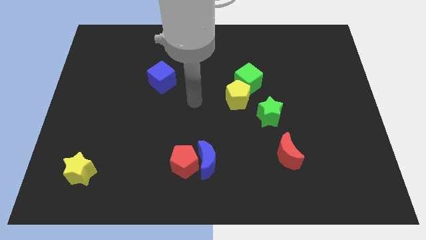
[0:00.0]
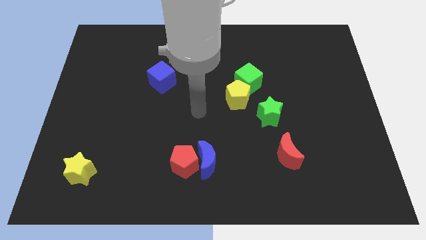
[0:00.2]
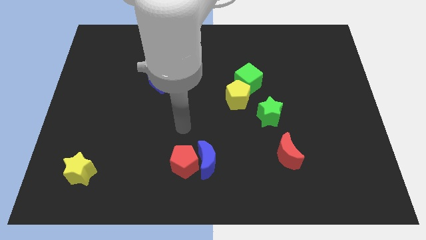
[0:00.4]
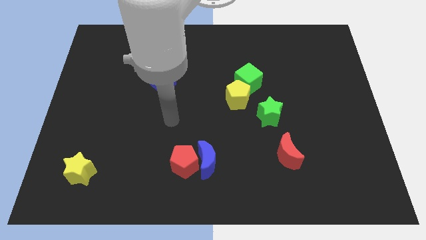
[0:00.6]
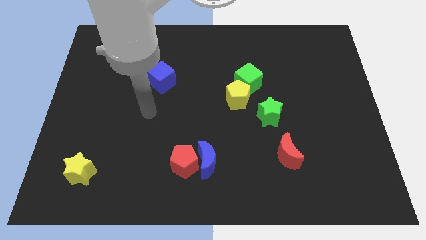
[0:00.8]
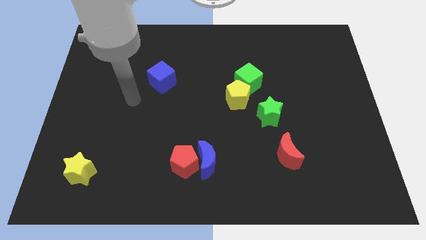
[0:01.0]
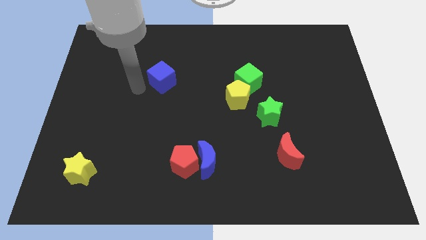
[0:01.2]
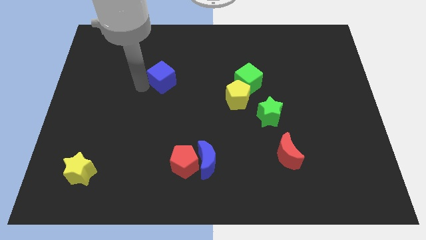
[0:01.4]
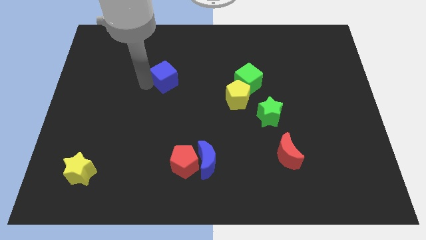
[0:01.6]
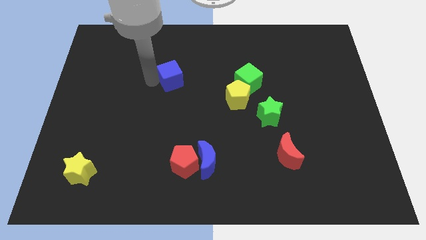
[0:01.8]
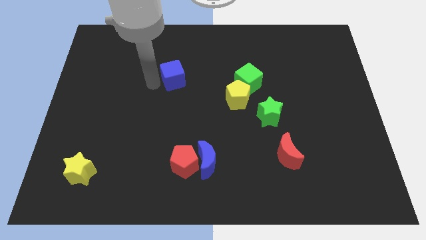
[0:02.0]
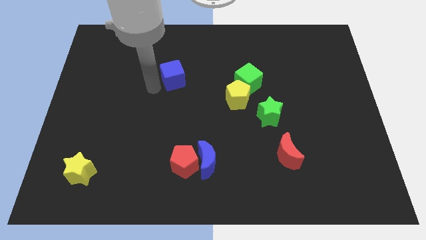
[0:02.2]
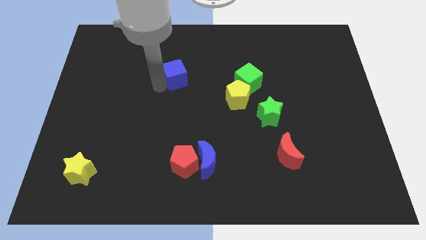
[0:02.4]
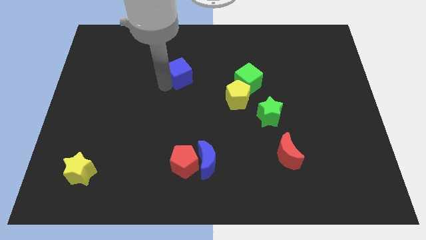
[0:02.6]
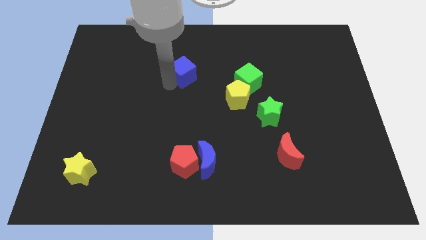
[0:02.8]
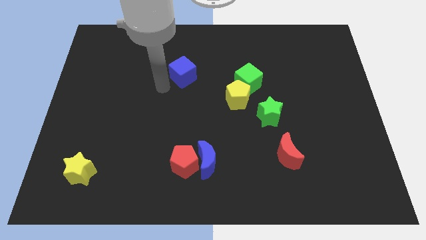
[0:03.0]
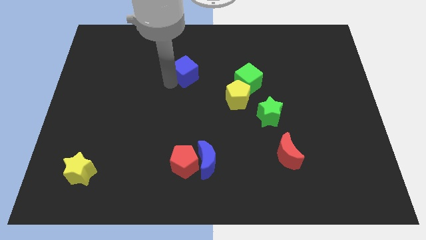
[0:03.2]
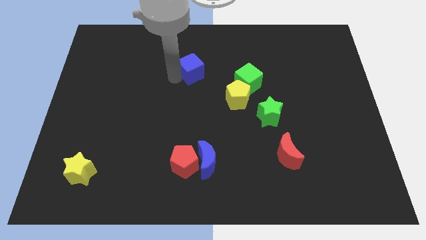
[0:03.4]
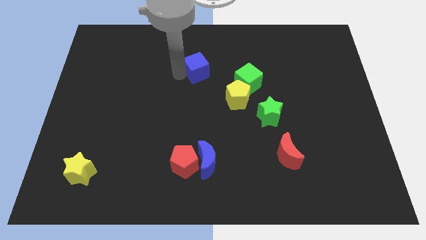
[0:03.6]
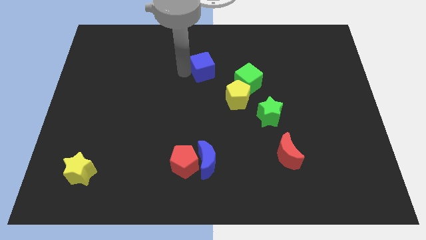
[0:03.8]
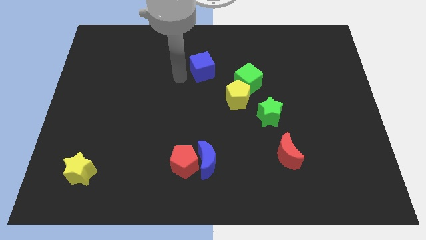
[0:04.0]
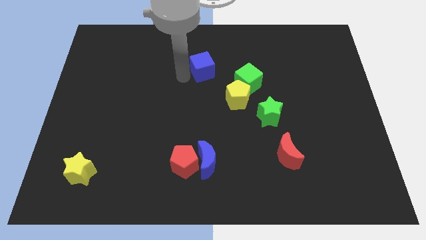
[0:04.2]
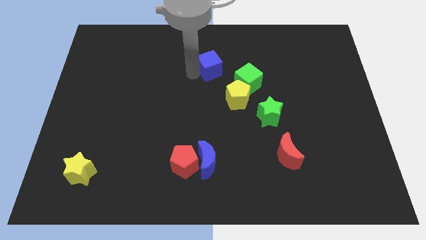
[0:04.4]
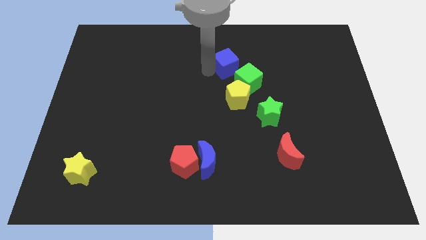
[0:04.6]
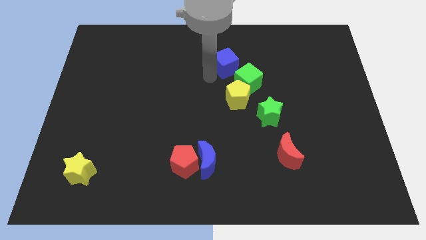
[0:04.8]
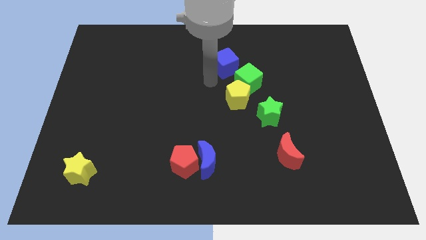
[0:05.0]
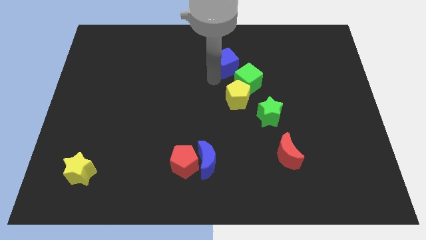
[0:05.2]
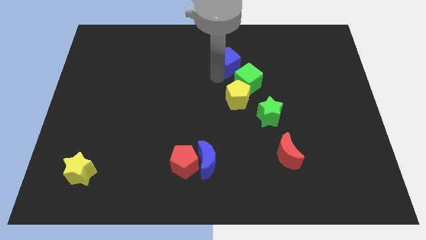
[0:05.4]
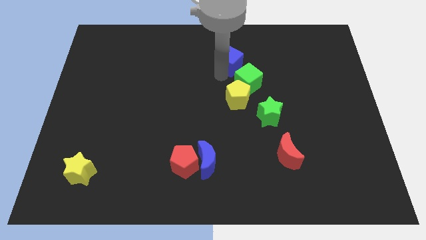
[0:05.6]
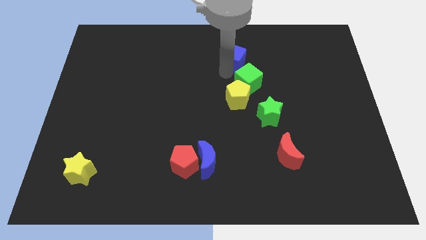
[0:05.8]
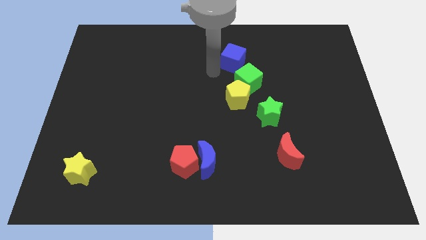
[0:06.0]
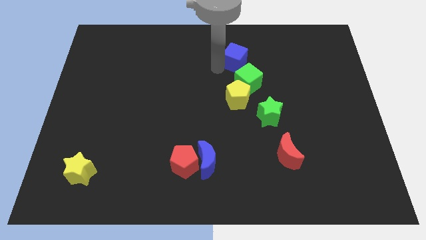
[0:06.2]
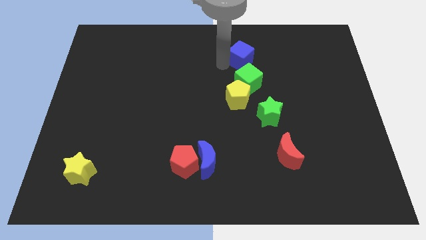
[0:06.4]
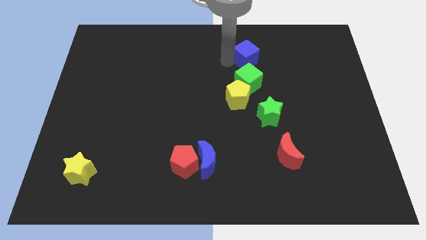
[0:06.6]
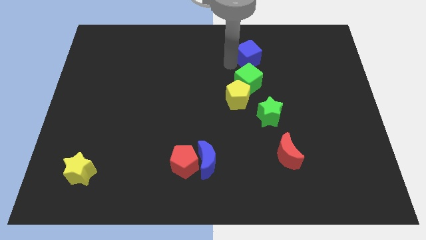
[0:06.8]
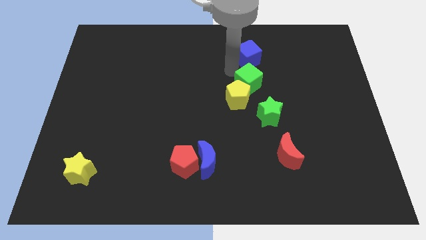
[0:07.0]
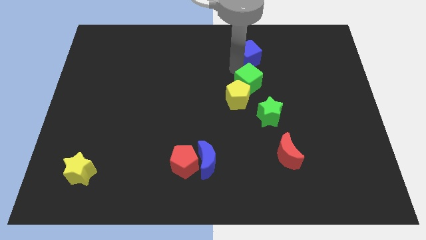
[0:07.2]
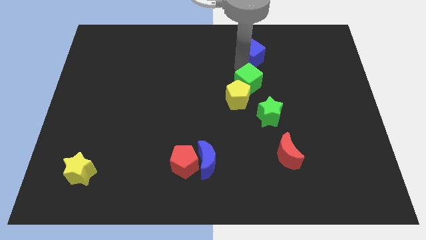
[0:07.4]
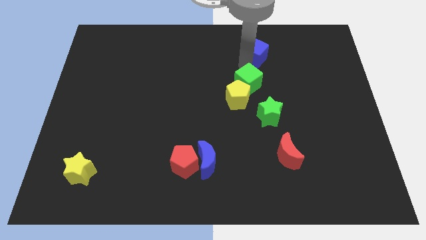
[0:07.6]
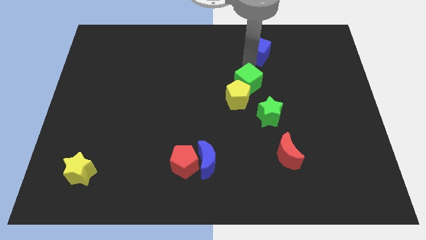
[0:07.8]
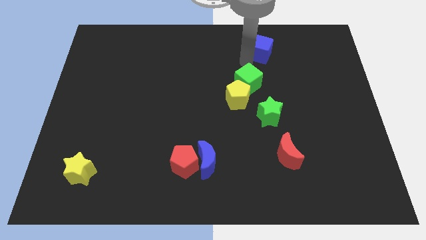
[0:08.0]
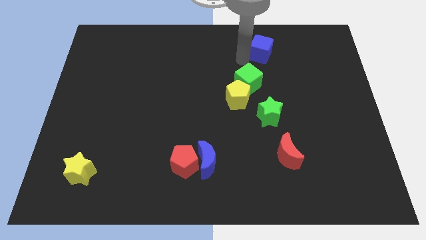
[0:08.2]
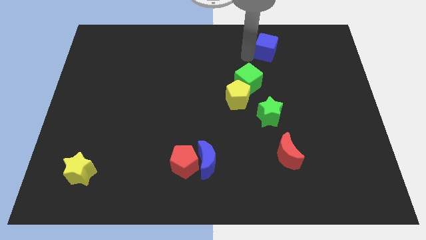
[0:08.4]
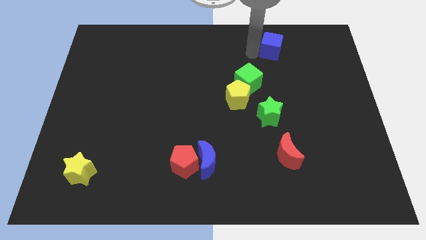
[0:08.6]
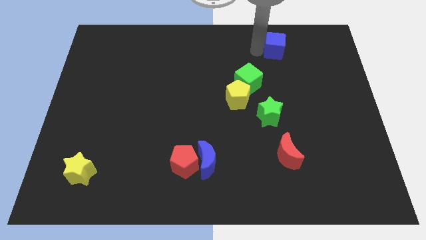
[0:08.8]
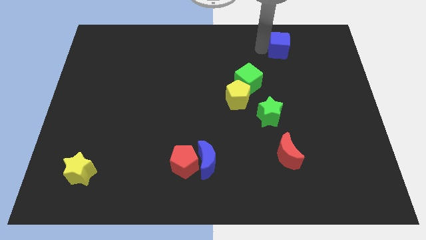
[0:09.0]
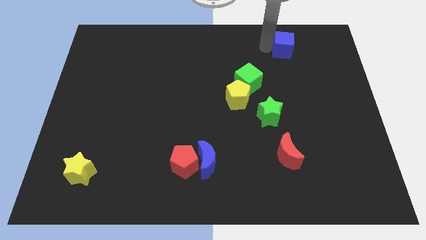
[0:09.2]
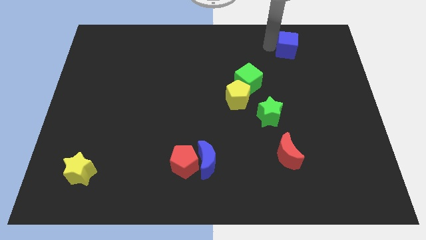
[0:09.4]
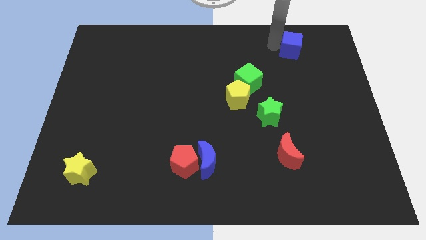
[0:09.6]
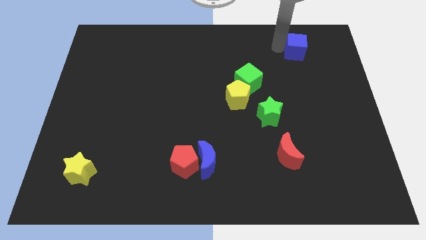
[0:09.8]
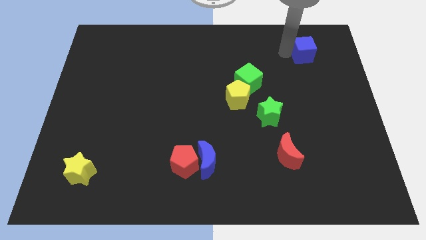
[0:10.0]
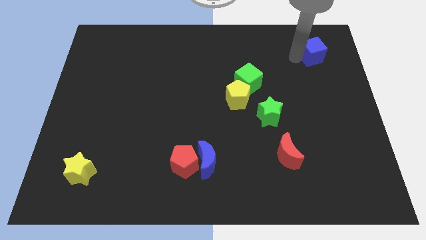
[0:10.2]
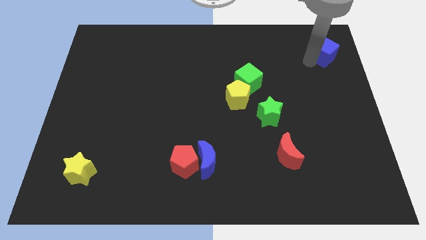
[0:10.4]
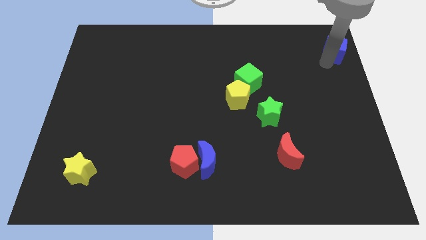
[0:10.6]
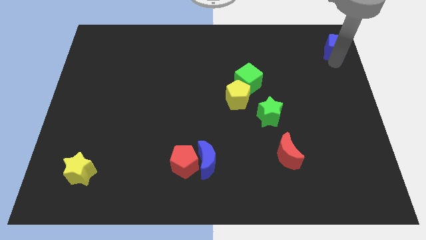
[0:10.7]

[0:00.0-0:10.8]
put the blue cube to the top right

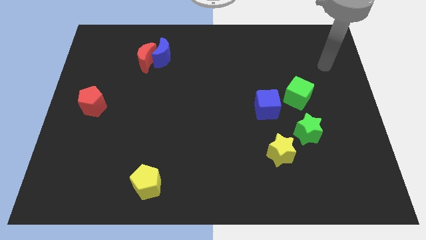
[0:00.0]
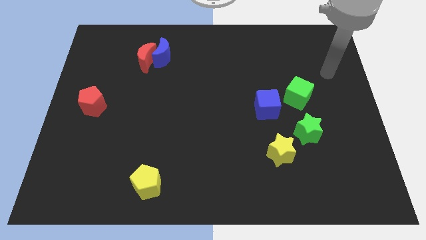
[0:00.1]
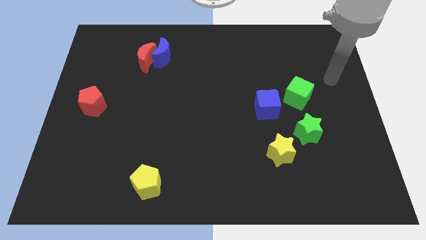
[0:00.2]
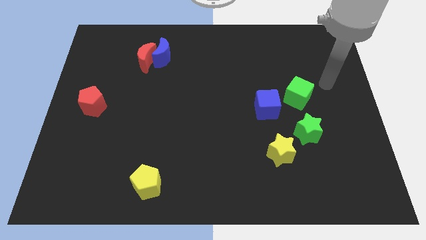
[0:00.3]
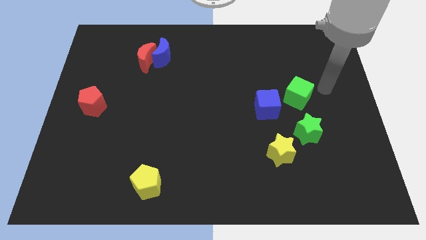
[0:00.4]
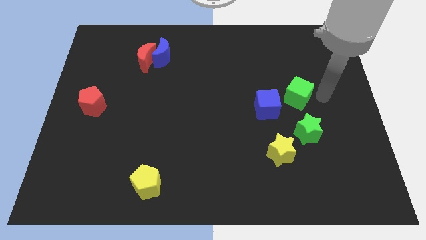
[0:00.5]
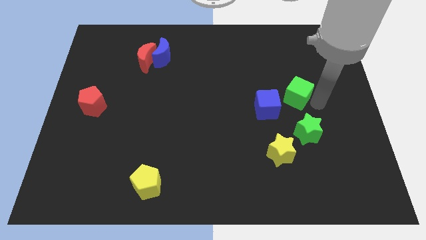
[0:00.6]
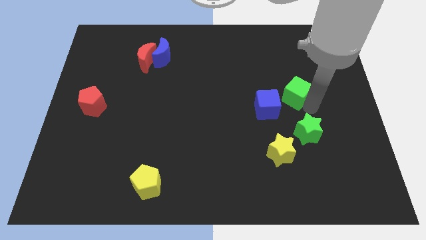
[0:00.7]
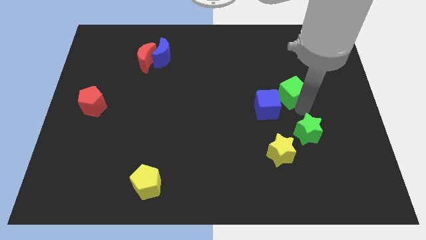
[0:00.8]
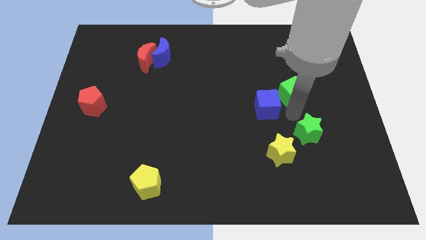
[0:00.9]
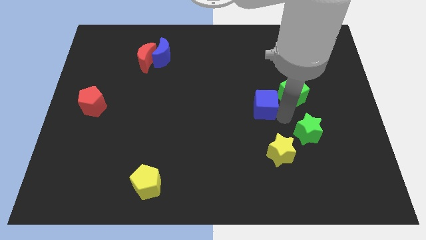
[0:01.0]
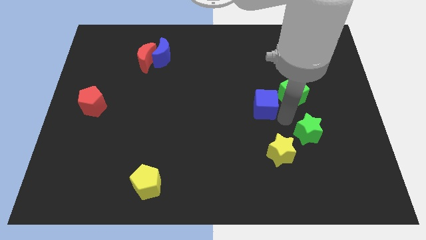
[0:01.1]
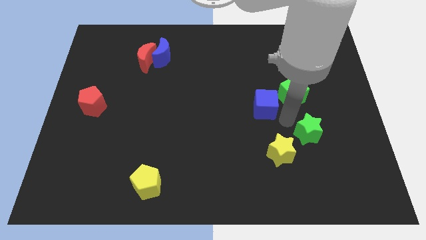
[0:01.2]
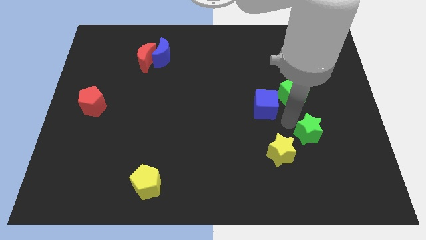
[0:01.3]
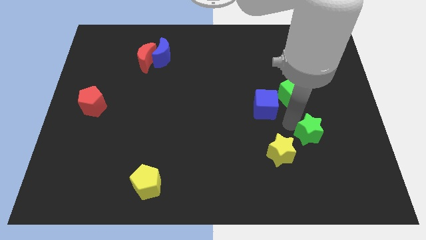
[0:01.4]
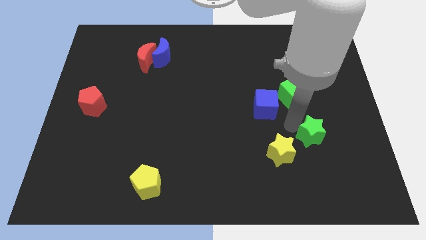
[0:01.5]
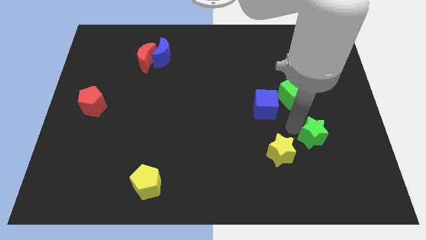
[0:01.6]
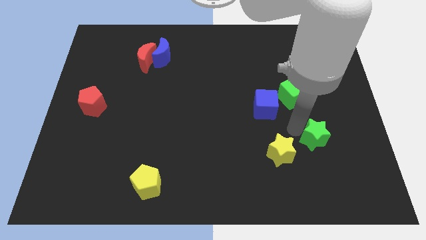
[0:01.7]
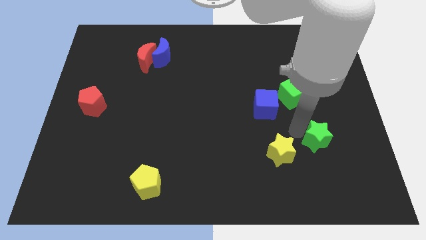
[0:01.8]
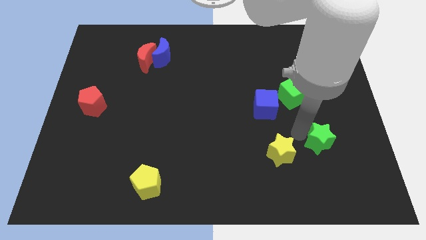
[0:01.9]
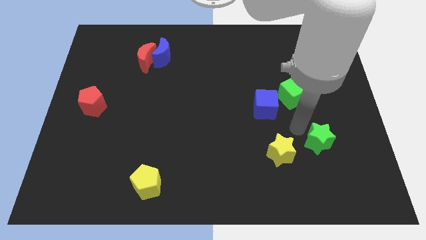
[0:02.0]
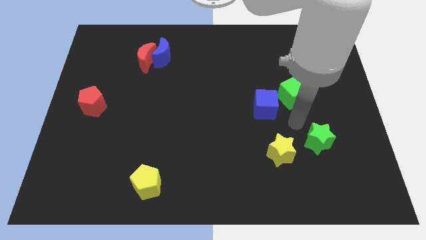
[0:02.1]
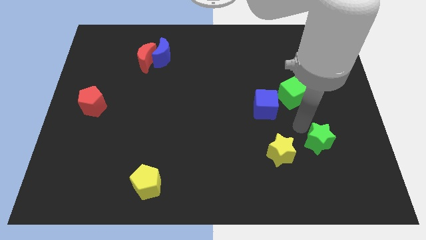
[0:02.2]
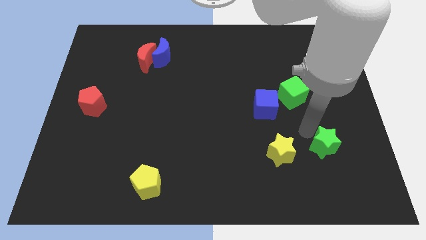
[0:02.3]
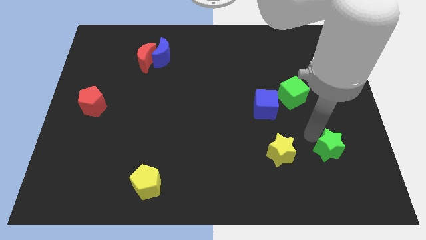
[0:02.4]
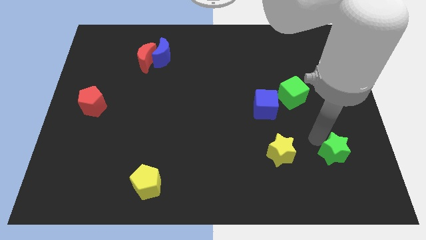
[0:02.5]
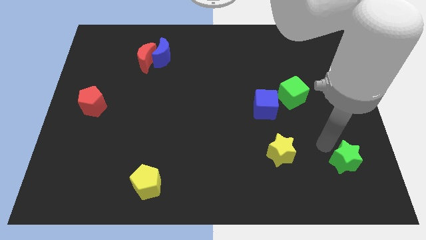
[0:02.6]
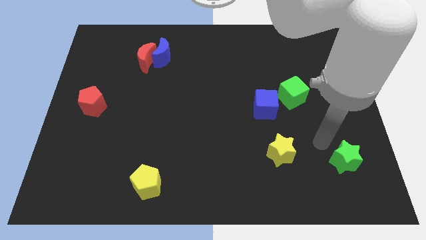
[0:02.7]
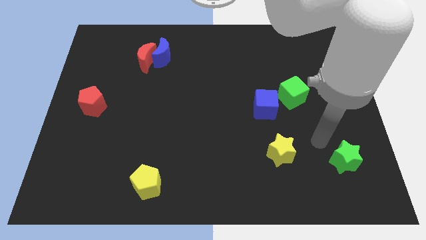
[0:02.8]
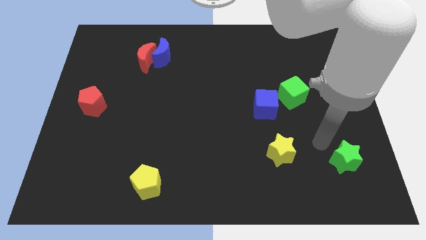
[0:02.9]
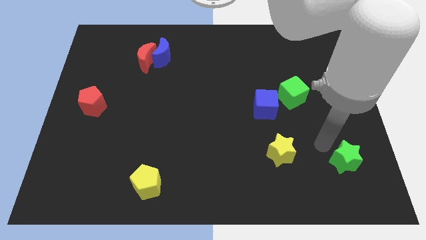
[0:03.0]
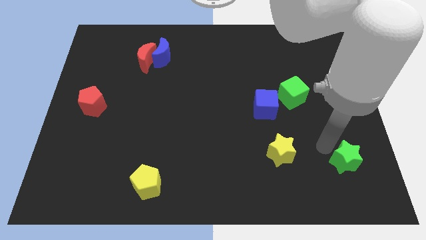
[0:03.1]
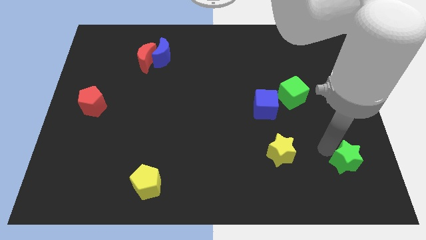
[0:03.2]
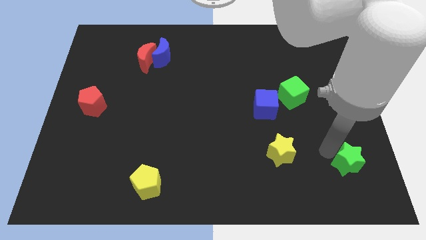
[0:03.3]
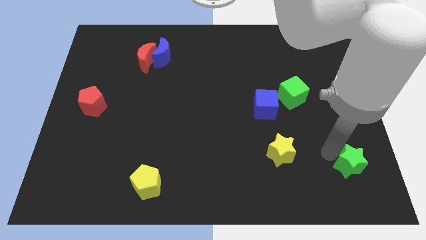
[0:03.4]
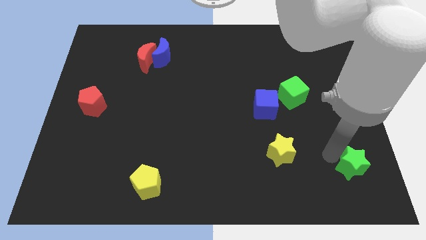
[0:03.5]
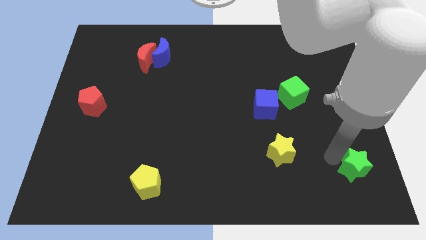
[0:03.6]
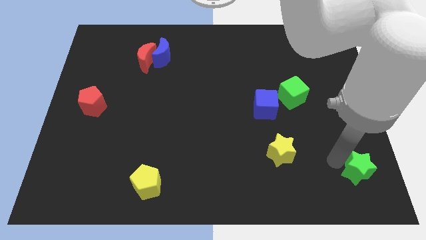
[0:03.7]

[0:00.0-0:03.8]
push the green star to the bottom right
